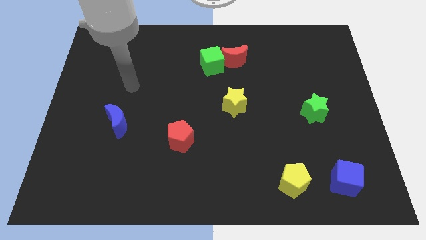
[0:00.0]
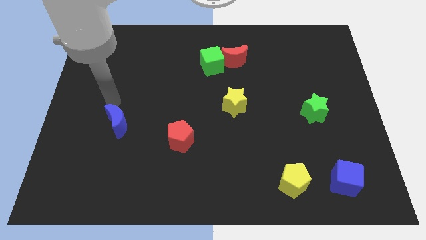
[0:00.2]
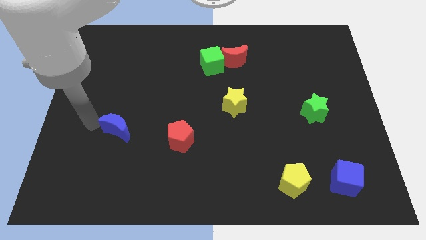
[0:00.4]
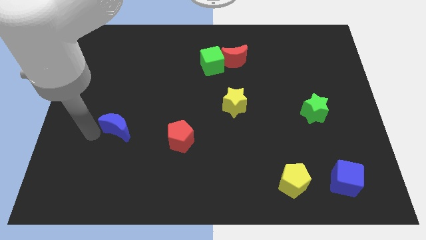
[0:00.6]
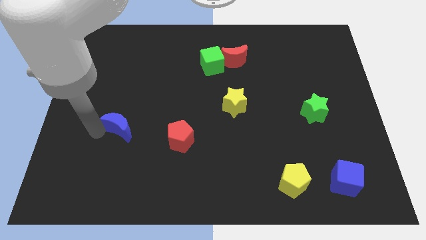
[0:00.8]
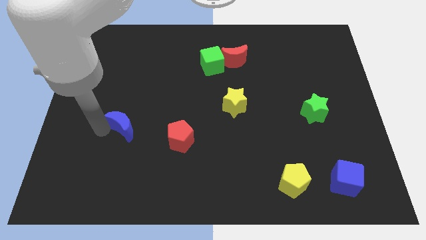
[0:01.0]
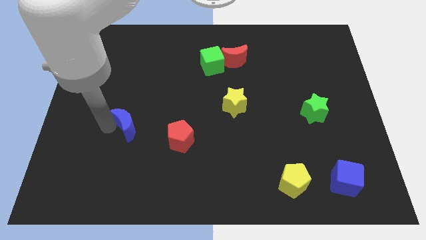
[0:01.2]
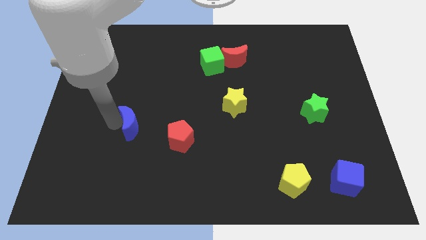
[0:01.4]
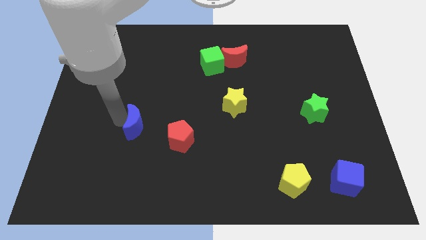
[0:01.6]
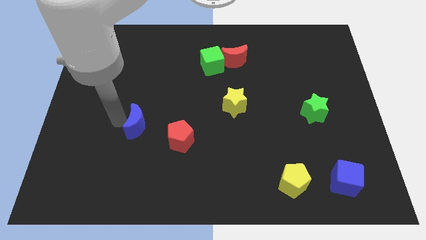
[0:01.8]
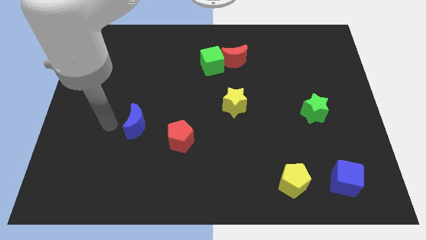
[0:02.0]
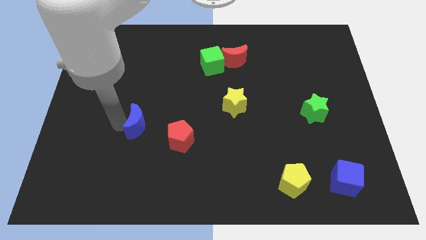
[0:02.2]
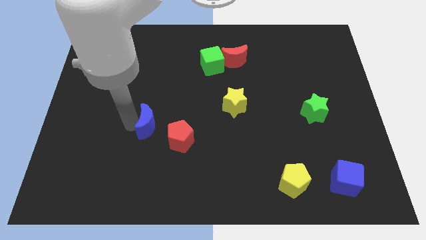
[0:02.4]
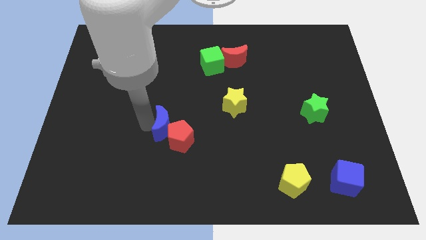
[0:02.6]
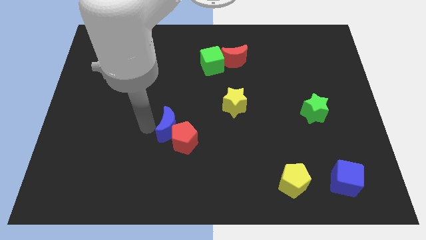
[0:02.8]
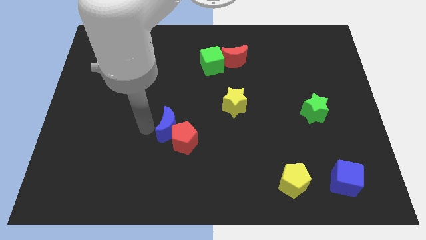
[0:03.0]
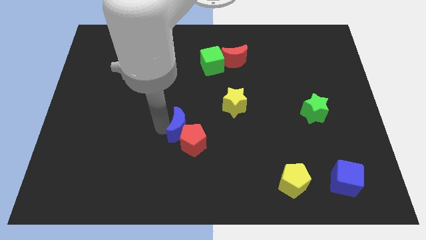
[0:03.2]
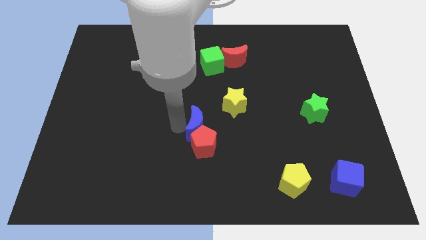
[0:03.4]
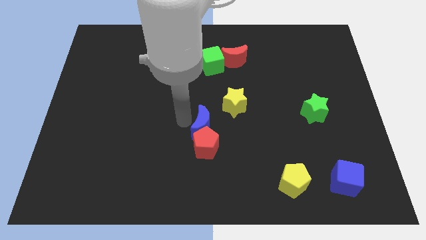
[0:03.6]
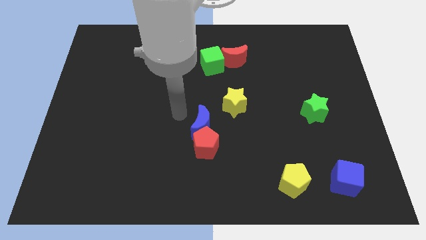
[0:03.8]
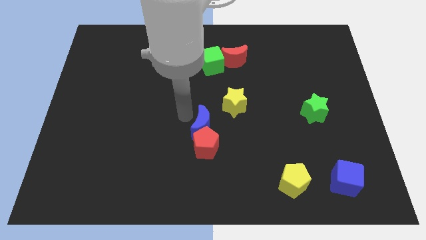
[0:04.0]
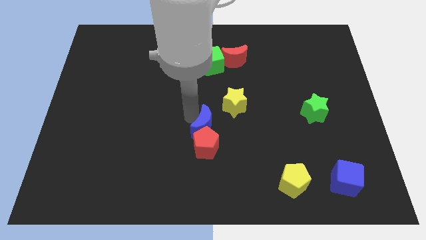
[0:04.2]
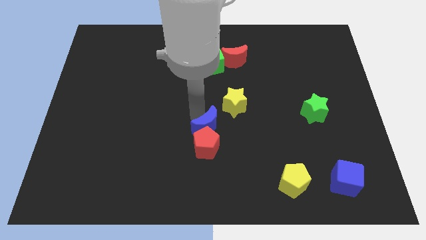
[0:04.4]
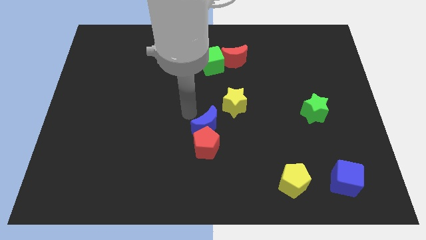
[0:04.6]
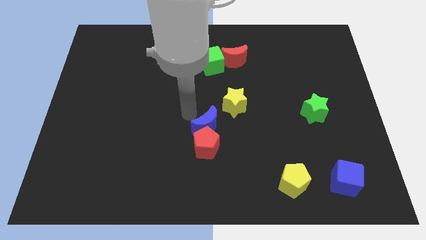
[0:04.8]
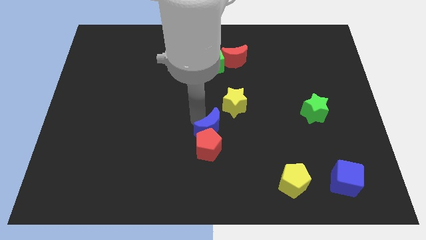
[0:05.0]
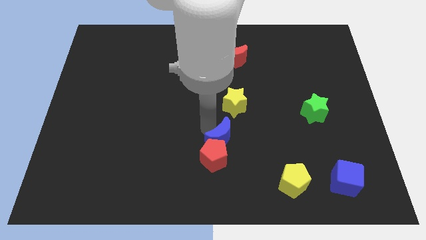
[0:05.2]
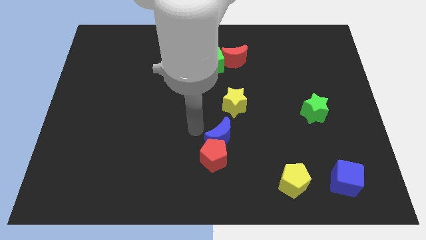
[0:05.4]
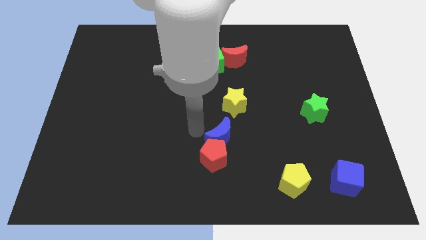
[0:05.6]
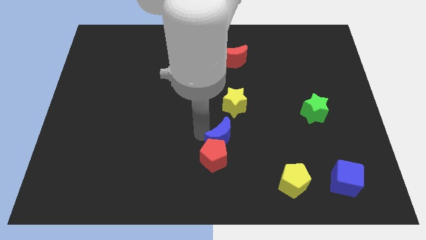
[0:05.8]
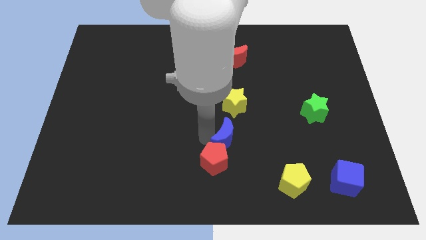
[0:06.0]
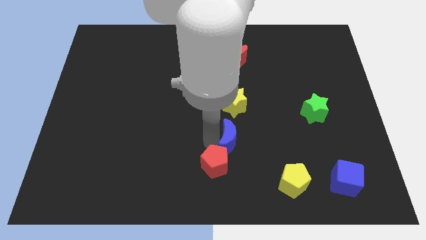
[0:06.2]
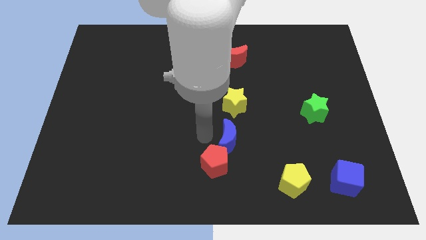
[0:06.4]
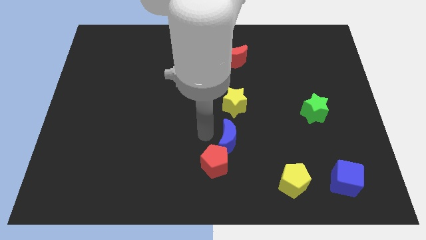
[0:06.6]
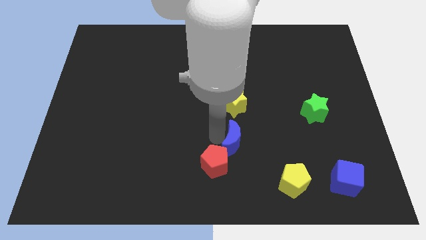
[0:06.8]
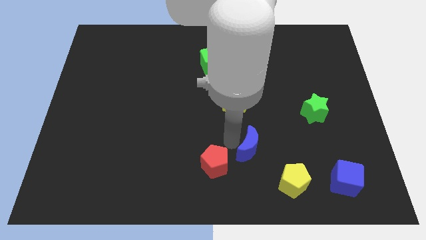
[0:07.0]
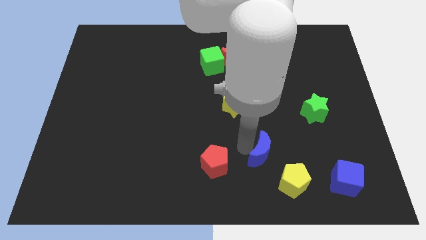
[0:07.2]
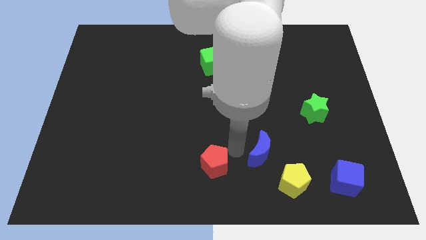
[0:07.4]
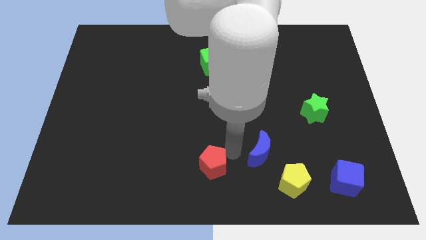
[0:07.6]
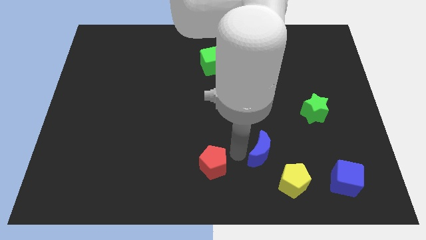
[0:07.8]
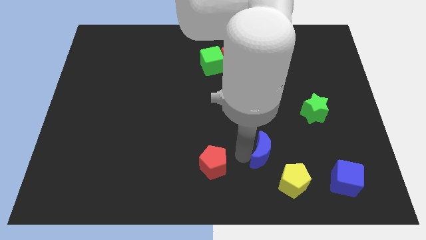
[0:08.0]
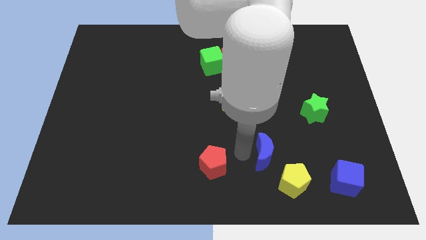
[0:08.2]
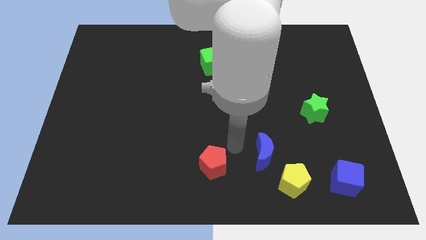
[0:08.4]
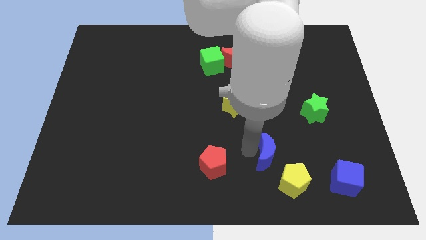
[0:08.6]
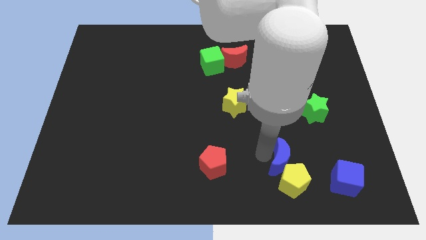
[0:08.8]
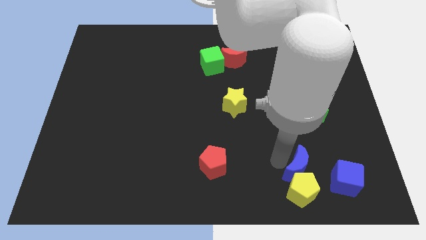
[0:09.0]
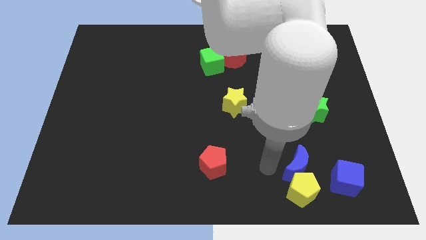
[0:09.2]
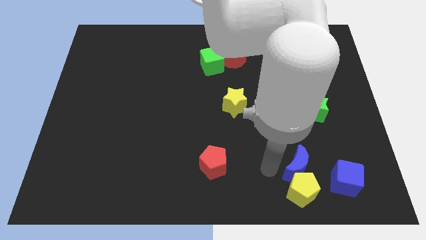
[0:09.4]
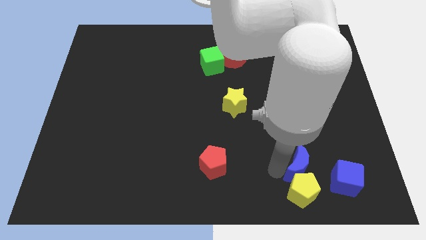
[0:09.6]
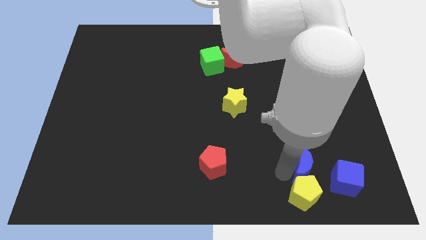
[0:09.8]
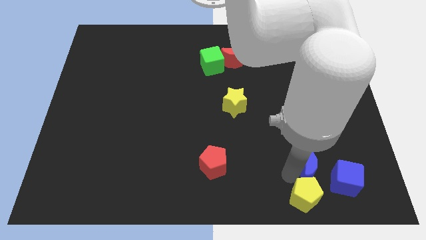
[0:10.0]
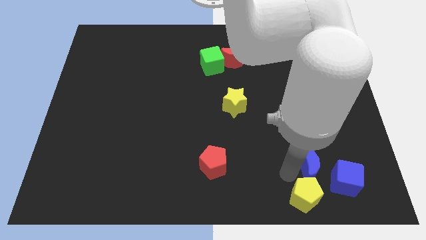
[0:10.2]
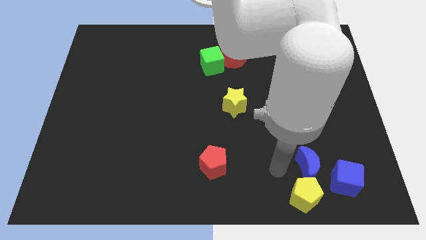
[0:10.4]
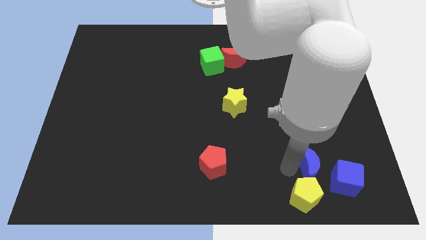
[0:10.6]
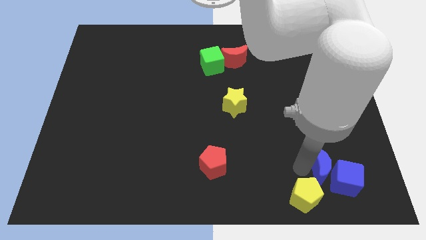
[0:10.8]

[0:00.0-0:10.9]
put the blue moon next to the blue cube

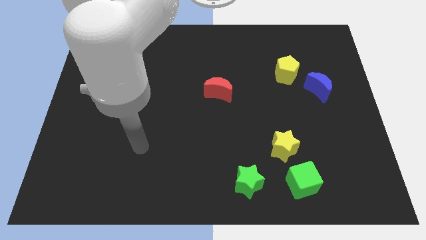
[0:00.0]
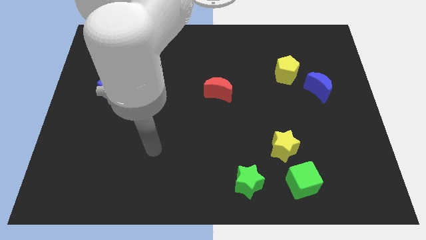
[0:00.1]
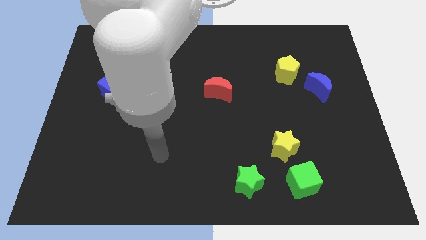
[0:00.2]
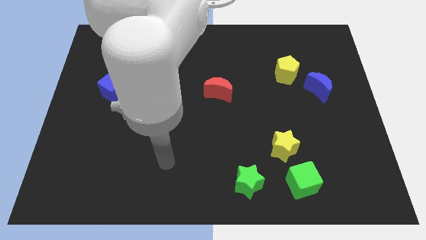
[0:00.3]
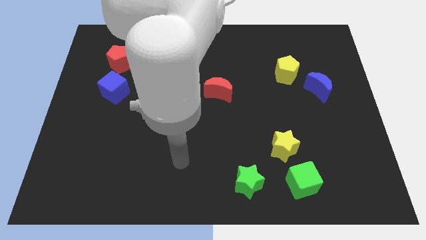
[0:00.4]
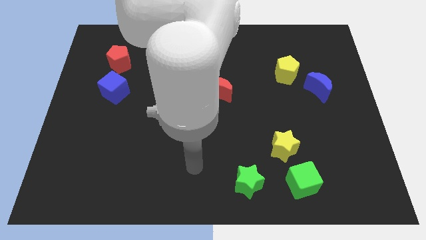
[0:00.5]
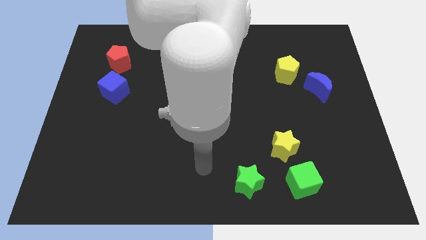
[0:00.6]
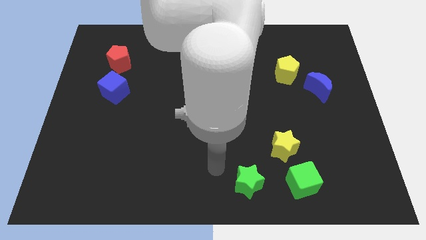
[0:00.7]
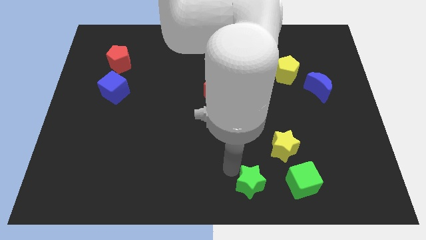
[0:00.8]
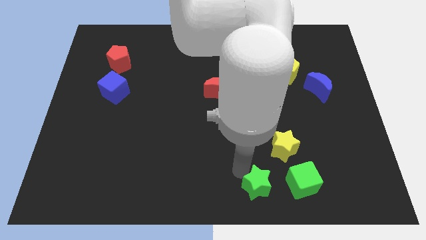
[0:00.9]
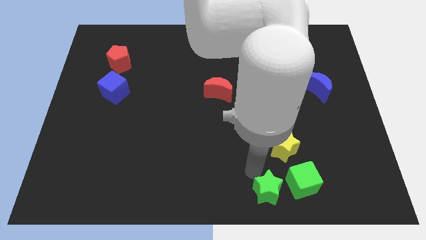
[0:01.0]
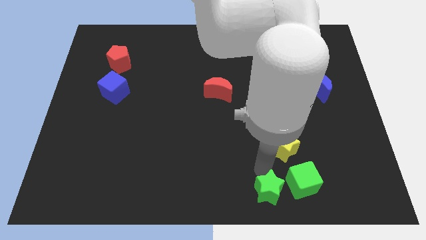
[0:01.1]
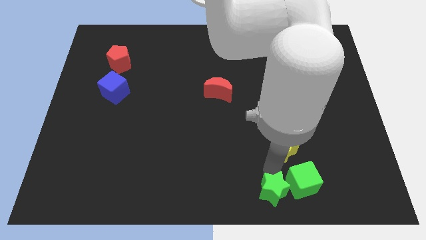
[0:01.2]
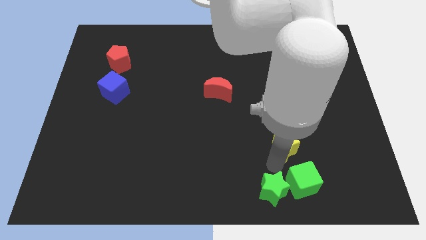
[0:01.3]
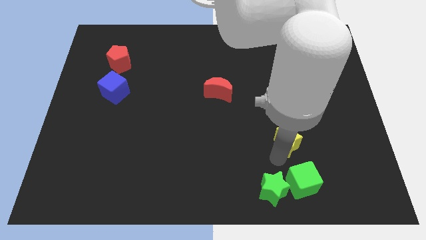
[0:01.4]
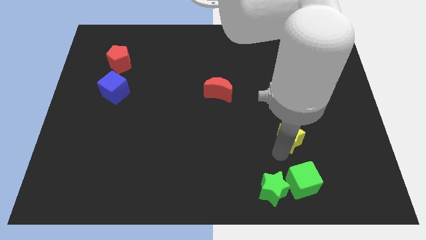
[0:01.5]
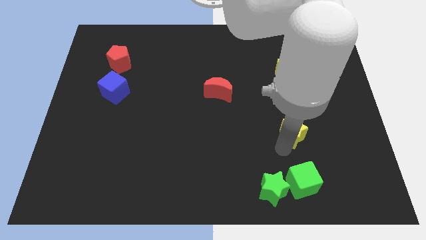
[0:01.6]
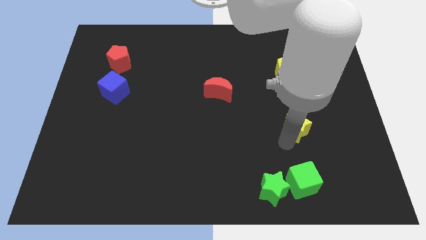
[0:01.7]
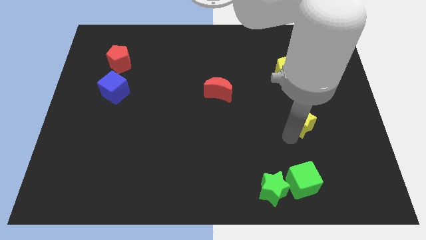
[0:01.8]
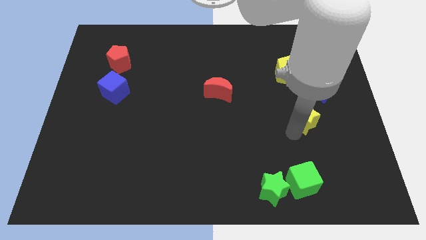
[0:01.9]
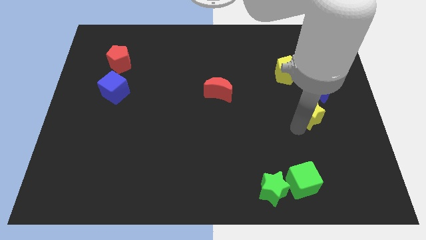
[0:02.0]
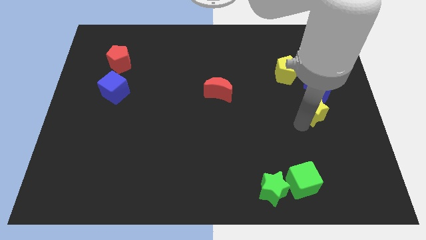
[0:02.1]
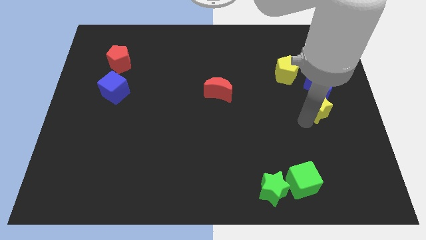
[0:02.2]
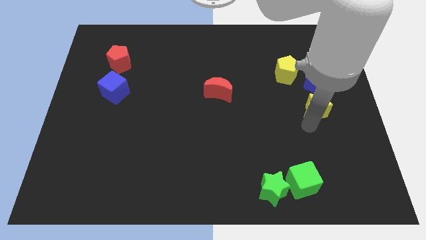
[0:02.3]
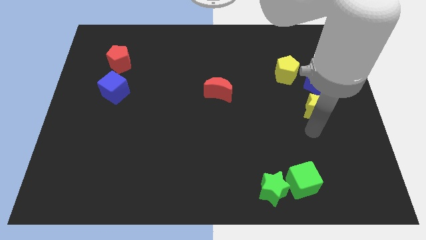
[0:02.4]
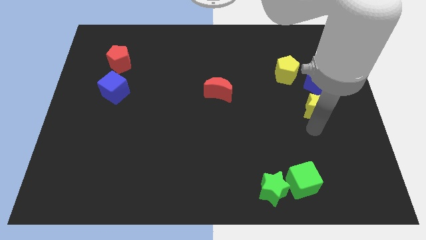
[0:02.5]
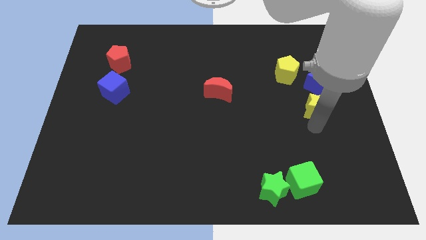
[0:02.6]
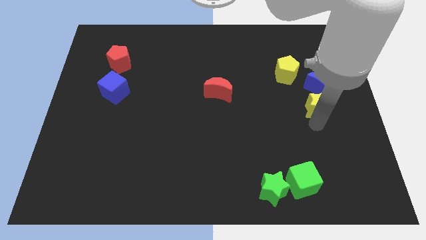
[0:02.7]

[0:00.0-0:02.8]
move the yellow star next to the blue moon
